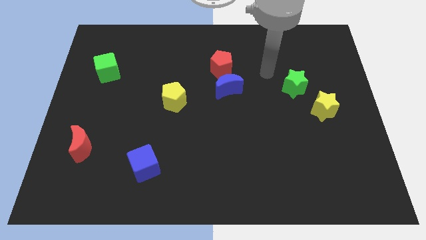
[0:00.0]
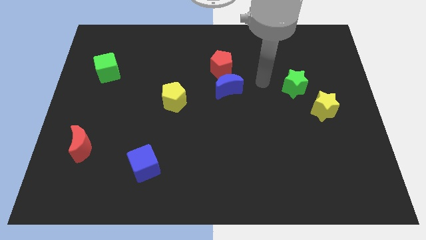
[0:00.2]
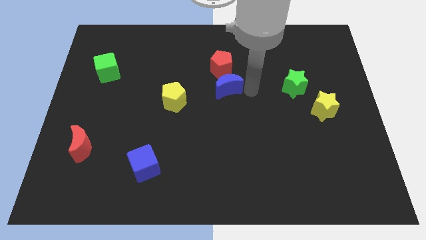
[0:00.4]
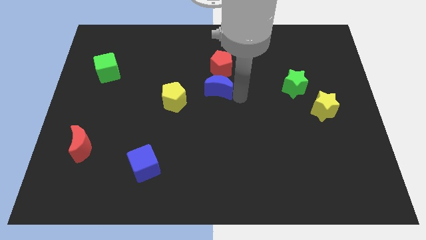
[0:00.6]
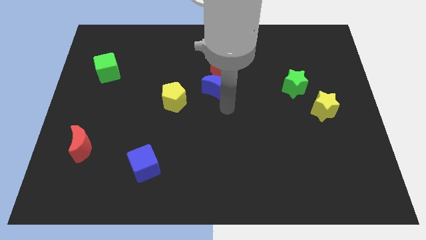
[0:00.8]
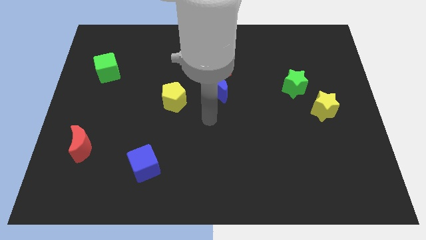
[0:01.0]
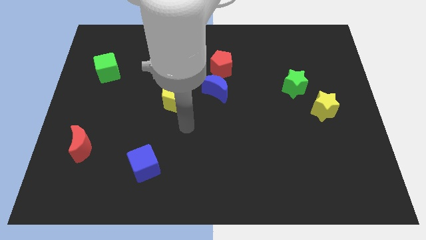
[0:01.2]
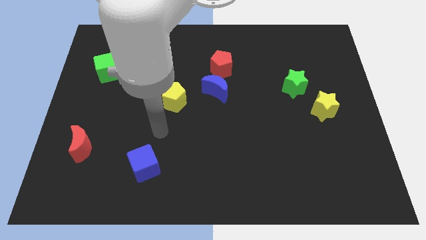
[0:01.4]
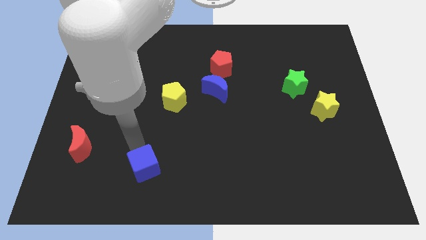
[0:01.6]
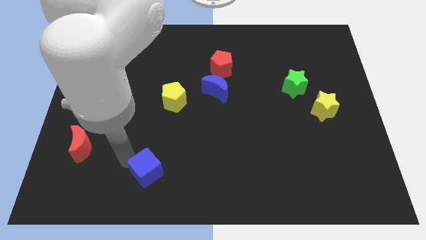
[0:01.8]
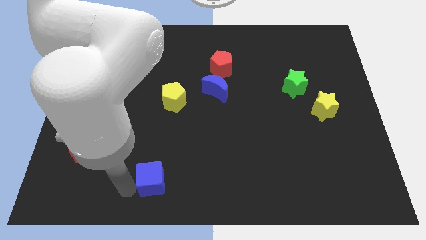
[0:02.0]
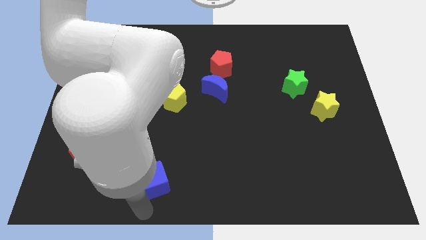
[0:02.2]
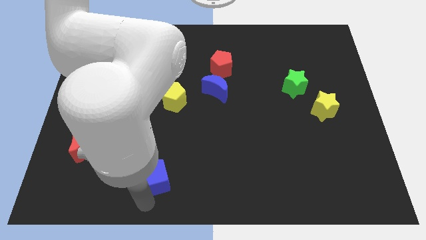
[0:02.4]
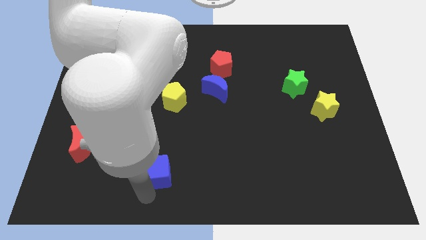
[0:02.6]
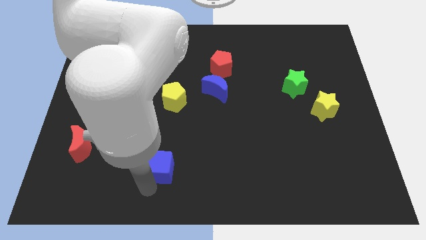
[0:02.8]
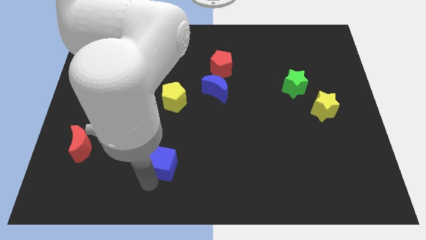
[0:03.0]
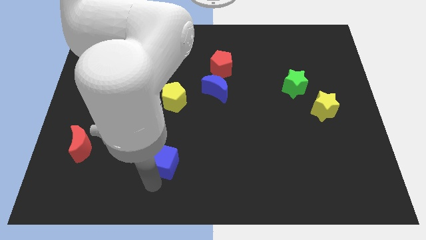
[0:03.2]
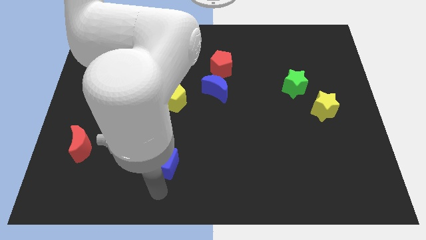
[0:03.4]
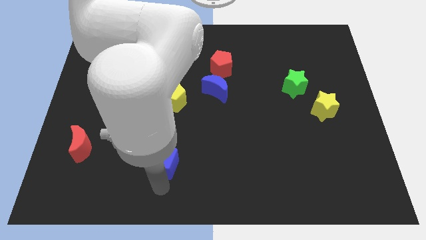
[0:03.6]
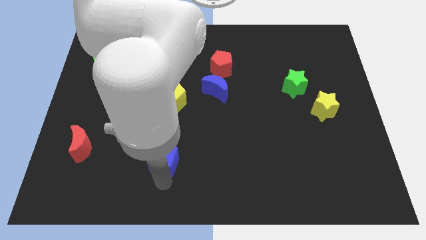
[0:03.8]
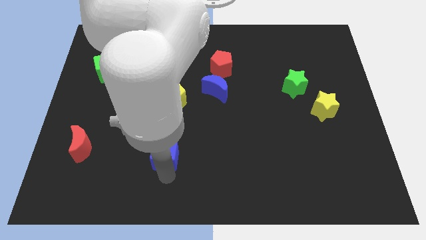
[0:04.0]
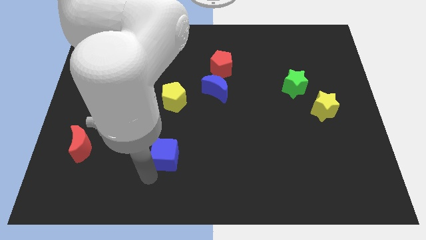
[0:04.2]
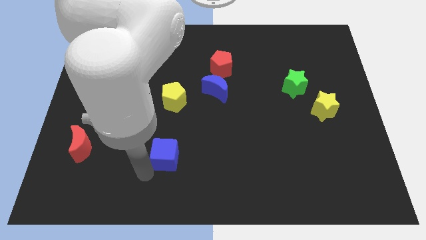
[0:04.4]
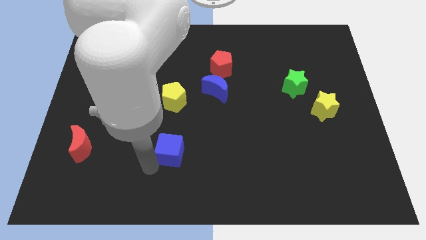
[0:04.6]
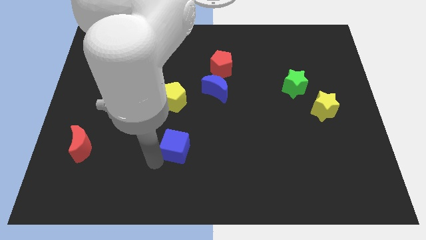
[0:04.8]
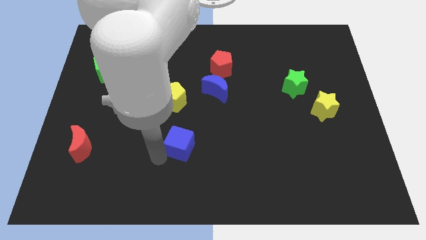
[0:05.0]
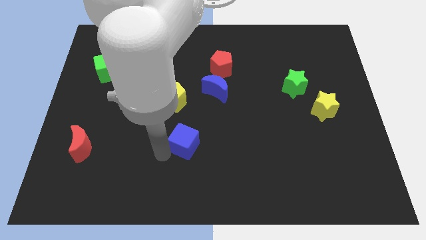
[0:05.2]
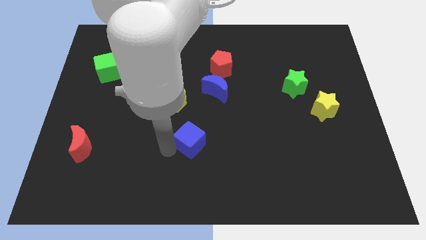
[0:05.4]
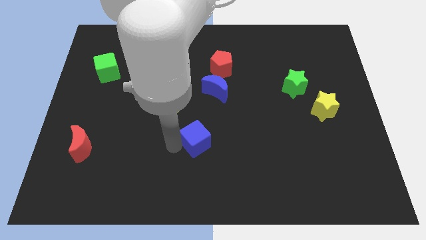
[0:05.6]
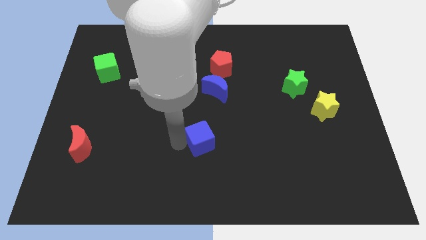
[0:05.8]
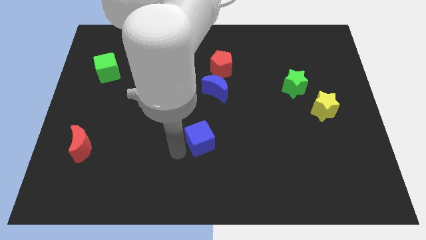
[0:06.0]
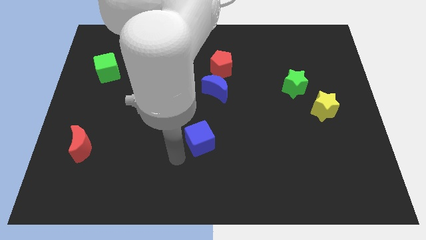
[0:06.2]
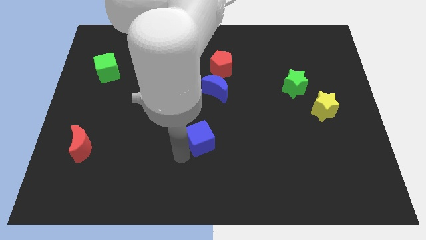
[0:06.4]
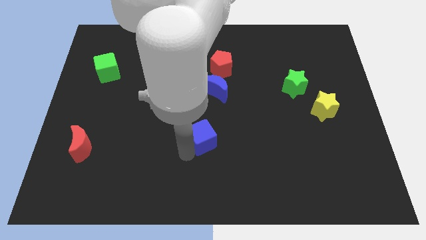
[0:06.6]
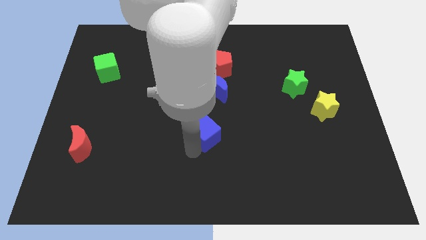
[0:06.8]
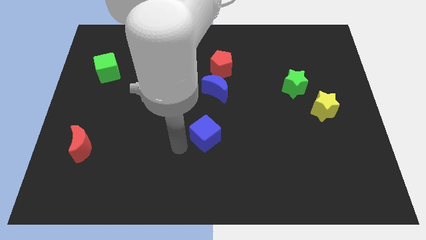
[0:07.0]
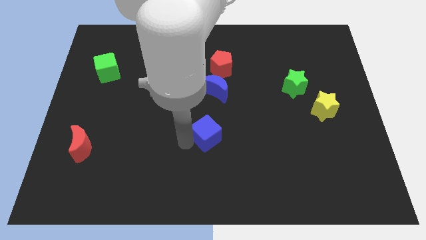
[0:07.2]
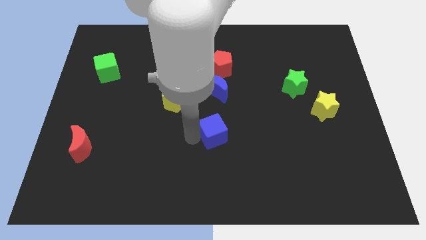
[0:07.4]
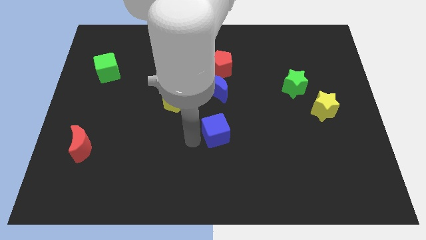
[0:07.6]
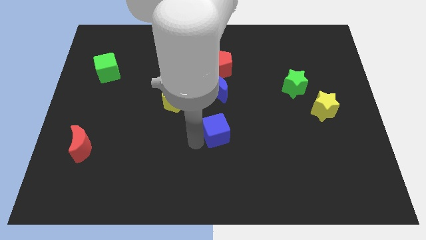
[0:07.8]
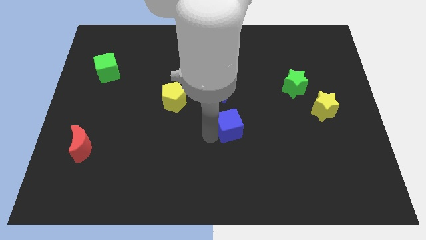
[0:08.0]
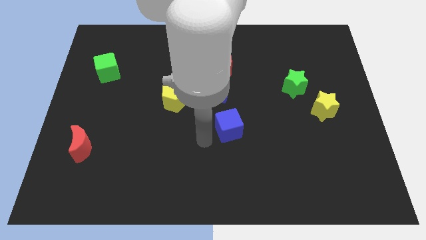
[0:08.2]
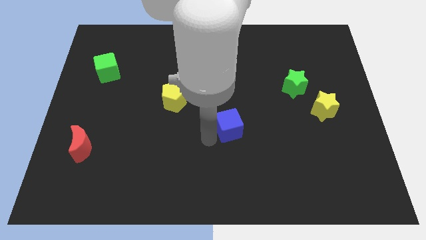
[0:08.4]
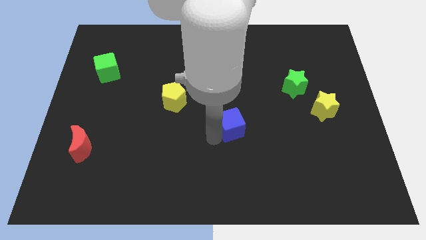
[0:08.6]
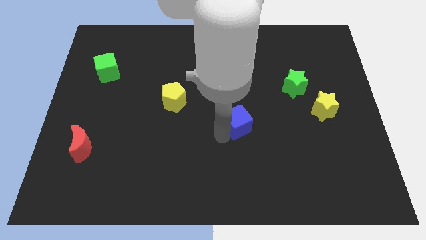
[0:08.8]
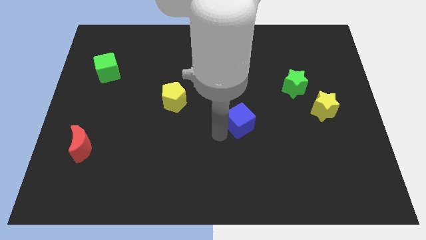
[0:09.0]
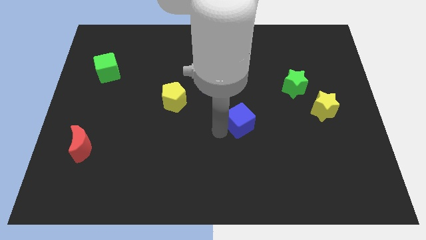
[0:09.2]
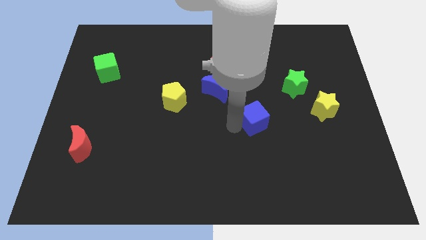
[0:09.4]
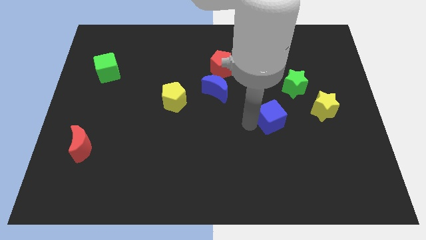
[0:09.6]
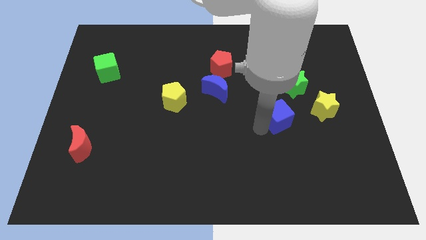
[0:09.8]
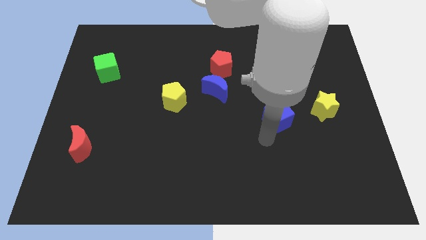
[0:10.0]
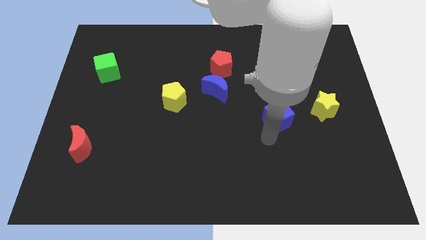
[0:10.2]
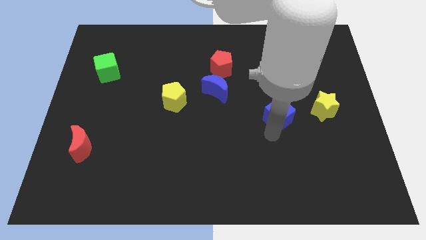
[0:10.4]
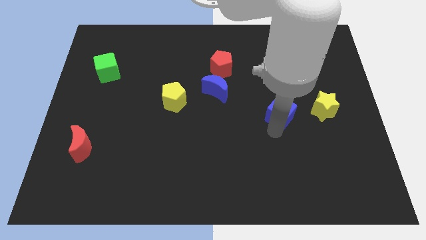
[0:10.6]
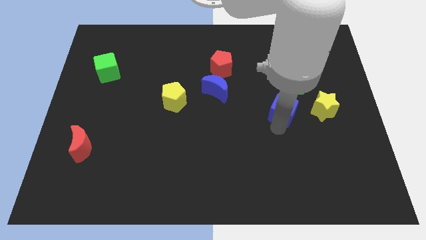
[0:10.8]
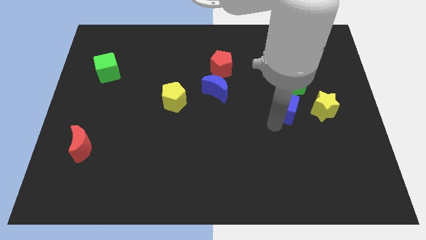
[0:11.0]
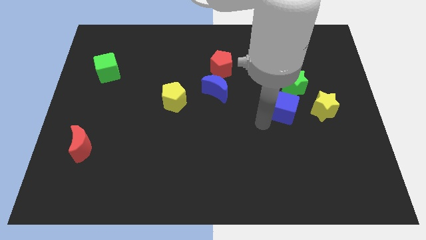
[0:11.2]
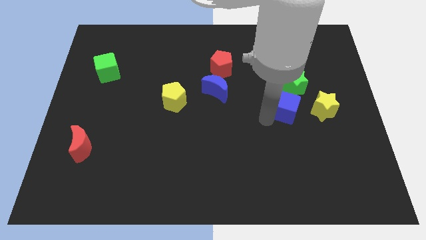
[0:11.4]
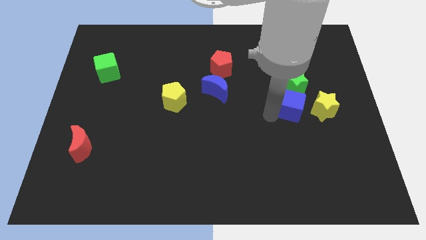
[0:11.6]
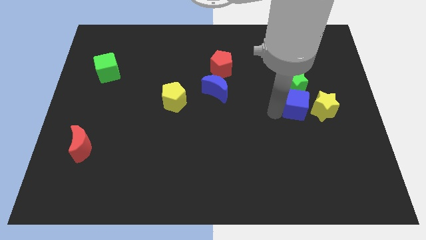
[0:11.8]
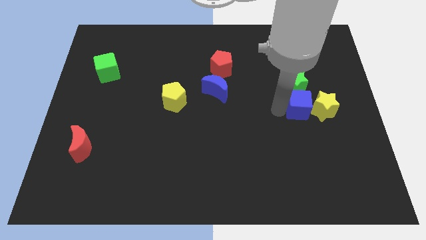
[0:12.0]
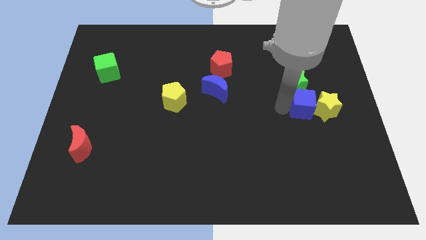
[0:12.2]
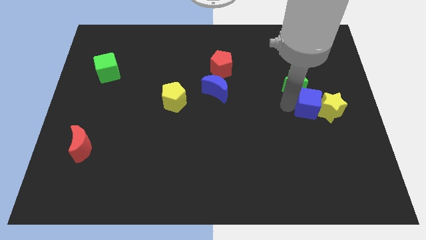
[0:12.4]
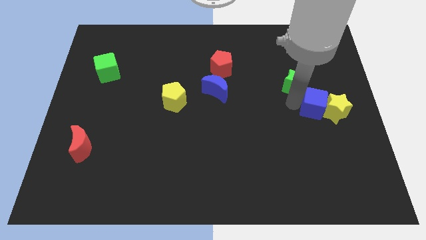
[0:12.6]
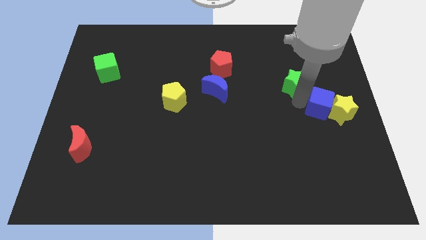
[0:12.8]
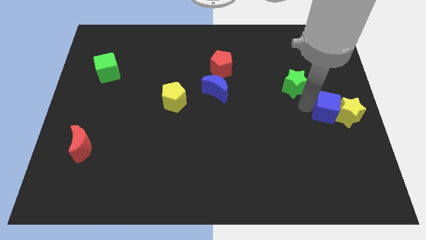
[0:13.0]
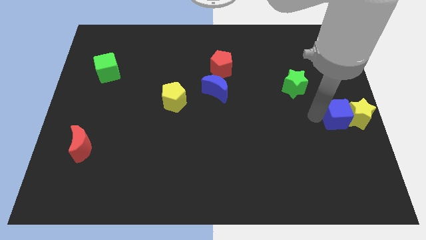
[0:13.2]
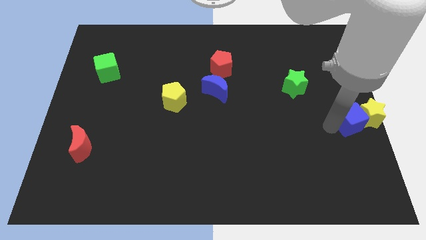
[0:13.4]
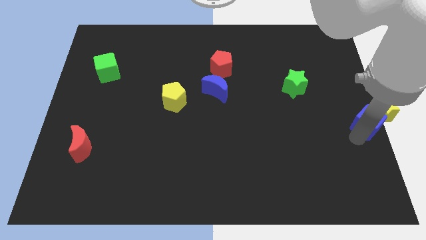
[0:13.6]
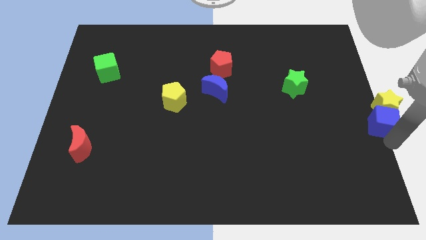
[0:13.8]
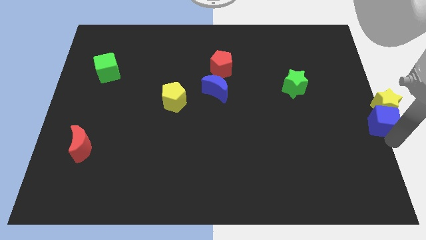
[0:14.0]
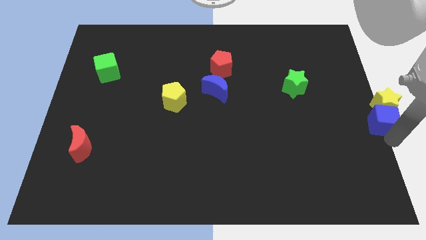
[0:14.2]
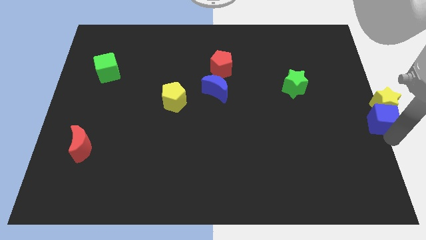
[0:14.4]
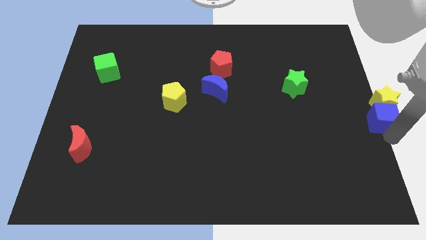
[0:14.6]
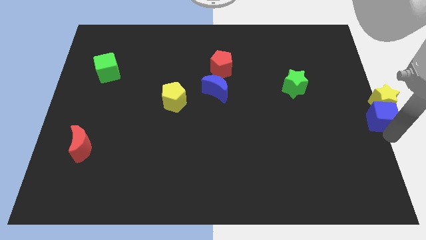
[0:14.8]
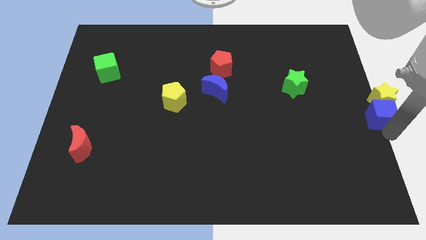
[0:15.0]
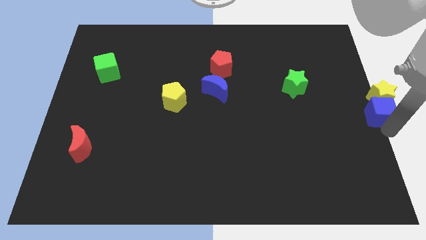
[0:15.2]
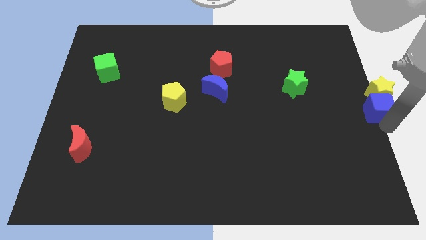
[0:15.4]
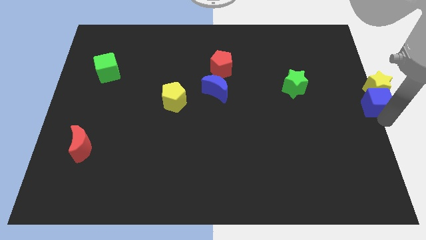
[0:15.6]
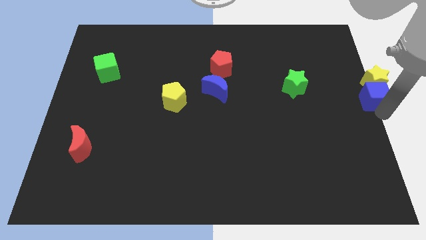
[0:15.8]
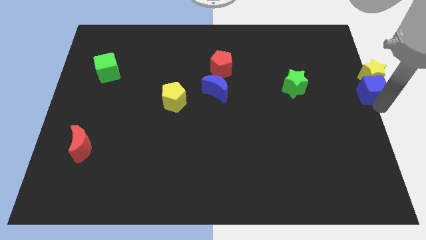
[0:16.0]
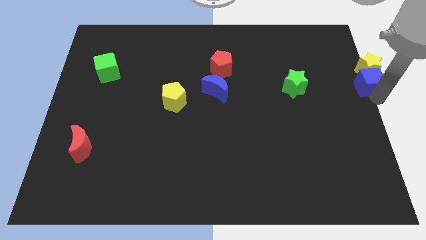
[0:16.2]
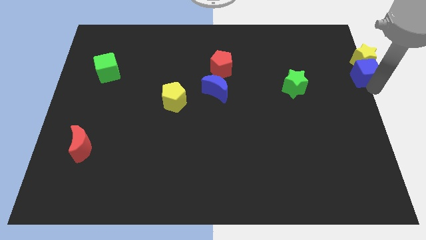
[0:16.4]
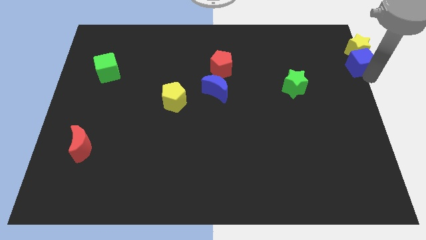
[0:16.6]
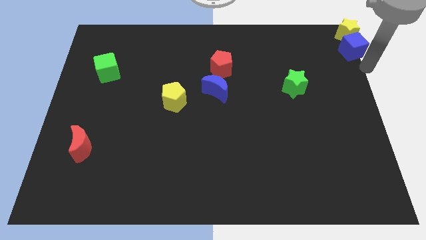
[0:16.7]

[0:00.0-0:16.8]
push the blue cube to the upper right corner

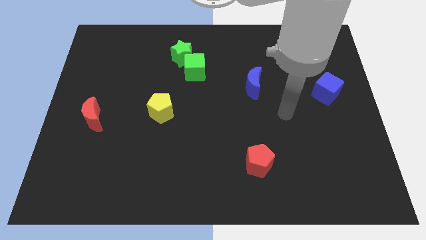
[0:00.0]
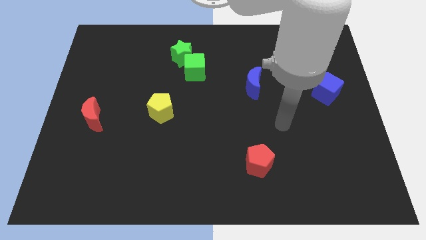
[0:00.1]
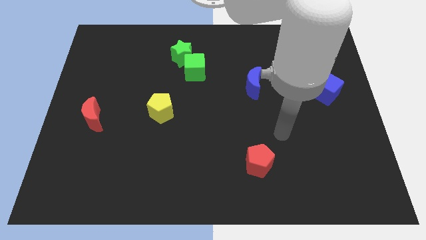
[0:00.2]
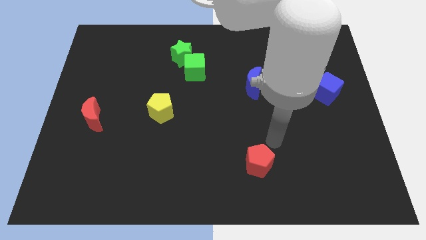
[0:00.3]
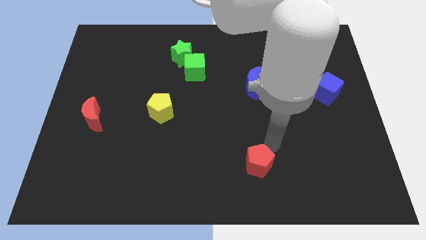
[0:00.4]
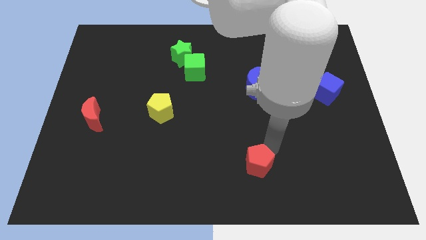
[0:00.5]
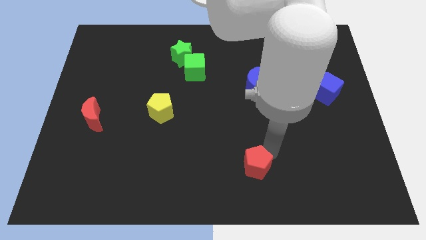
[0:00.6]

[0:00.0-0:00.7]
push the red pentagon to the bottom
